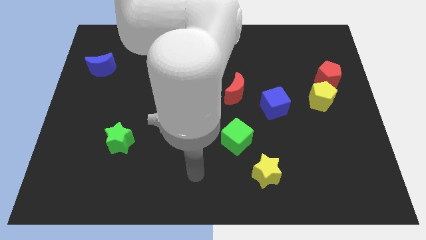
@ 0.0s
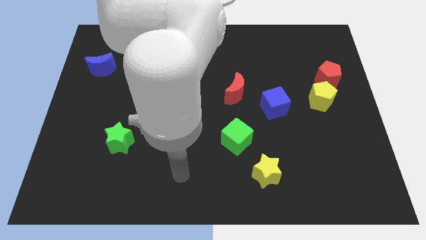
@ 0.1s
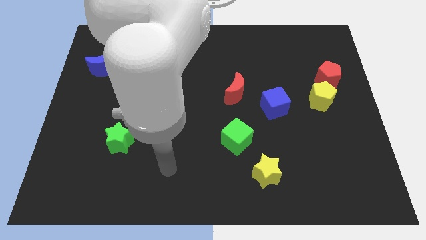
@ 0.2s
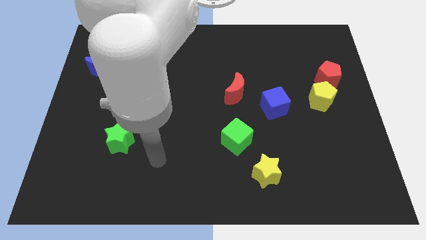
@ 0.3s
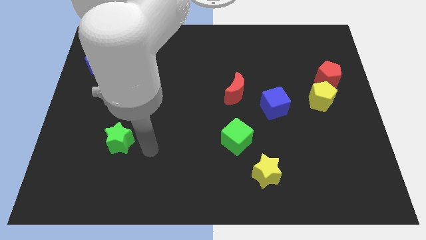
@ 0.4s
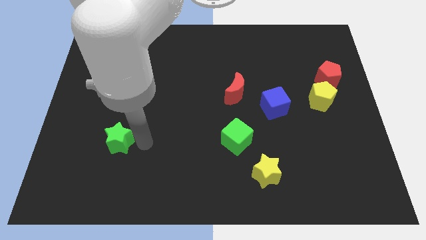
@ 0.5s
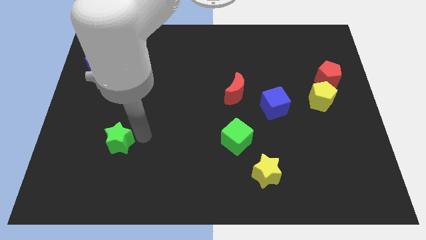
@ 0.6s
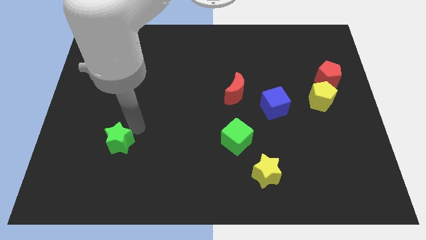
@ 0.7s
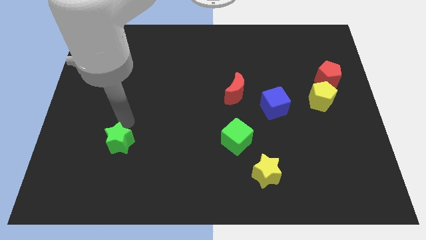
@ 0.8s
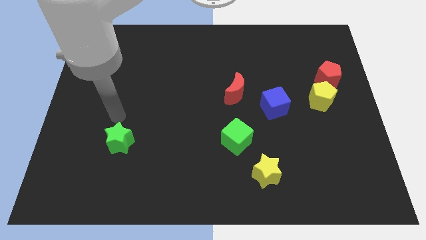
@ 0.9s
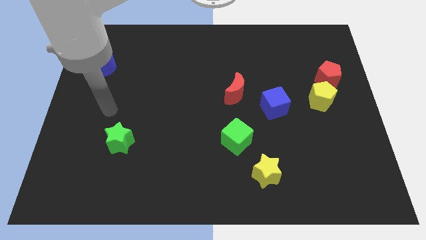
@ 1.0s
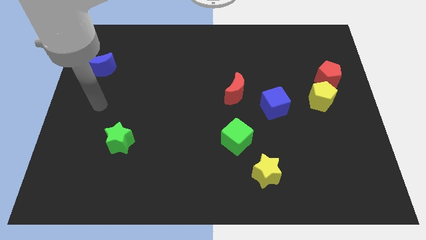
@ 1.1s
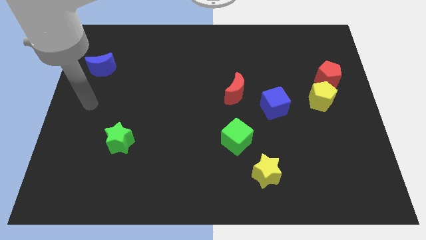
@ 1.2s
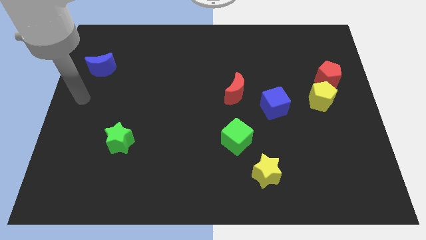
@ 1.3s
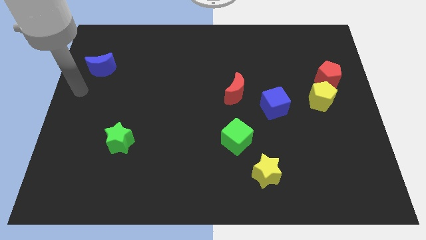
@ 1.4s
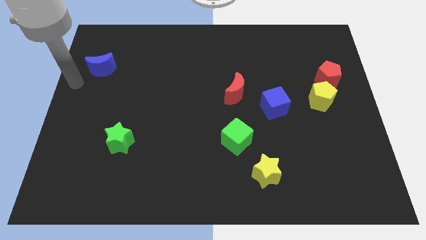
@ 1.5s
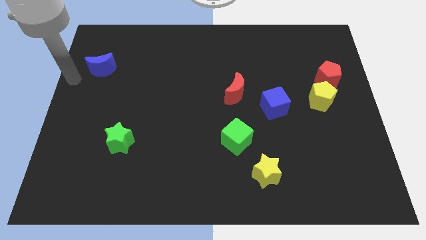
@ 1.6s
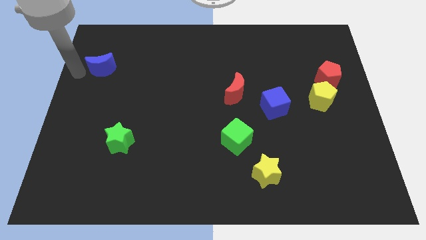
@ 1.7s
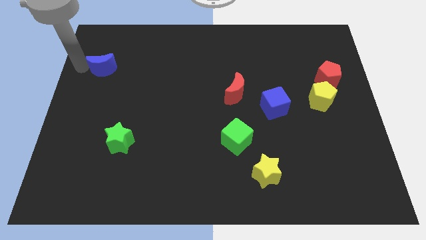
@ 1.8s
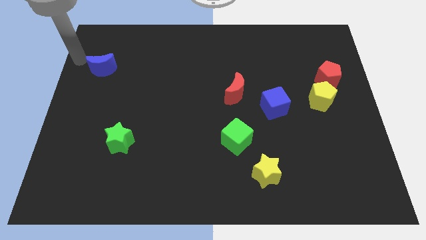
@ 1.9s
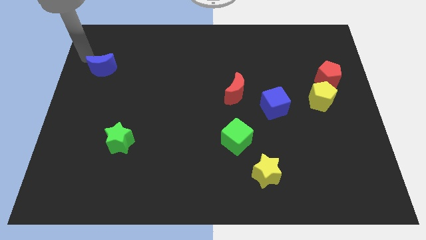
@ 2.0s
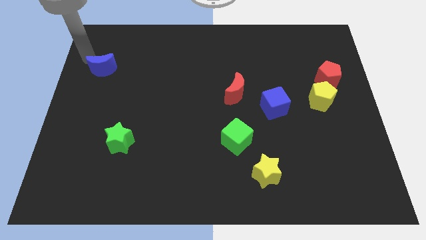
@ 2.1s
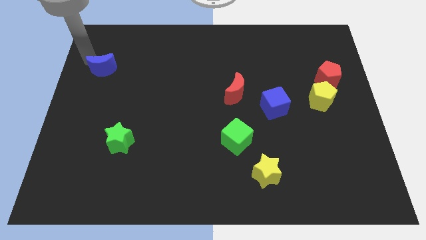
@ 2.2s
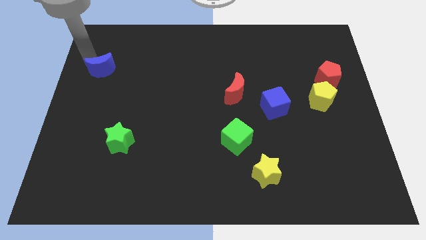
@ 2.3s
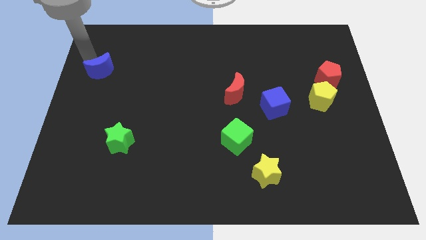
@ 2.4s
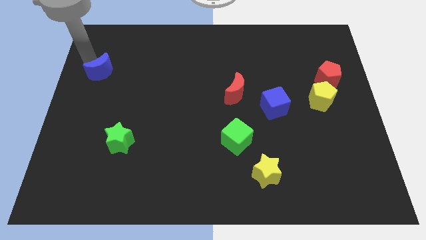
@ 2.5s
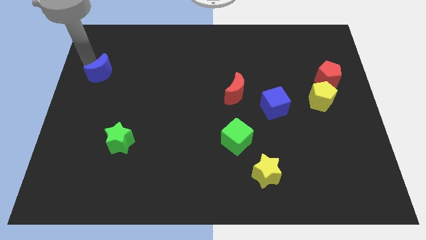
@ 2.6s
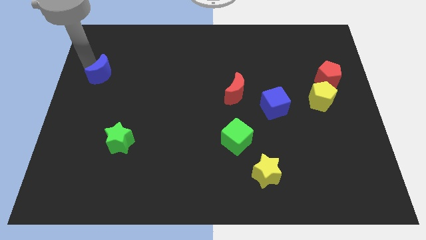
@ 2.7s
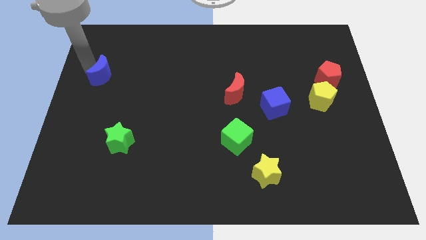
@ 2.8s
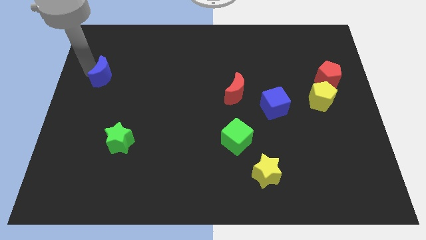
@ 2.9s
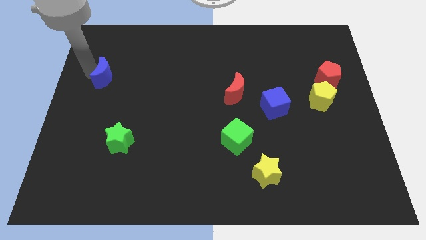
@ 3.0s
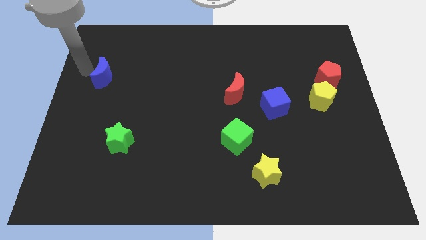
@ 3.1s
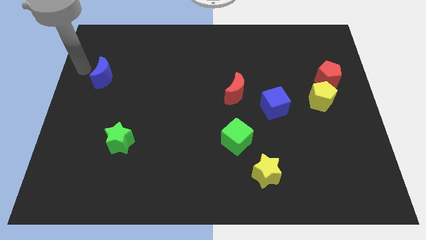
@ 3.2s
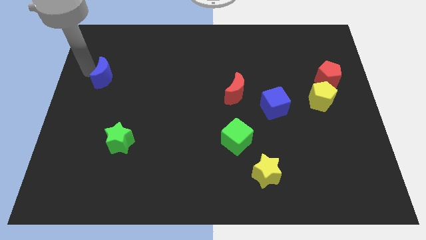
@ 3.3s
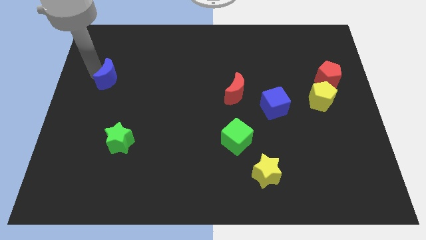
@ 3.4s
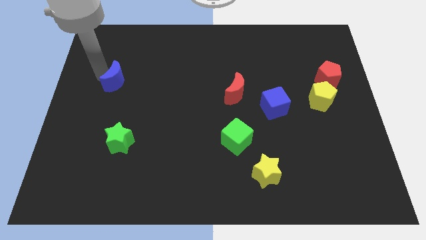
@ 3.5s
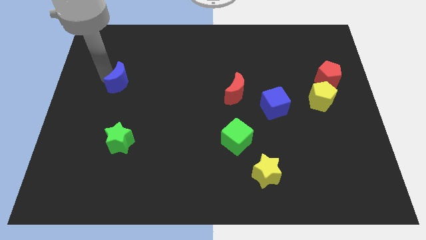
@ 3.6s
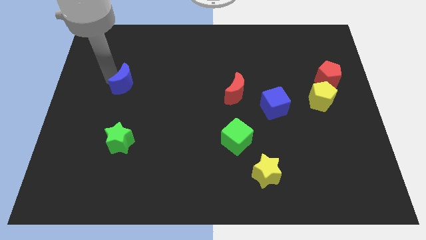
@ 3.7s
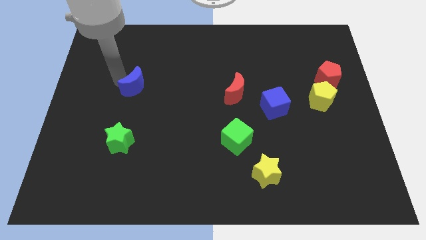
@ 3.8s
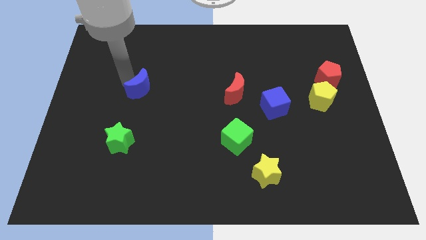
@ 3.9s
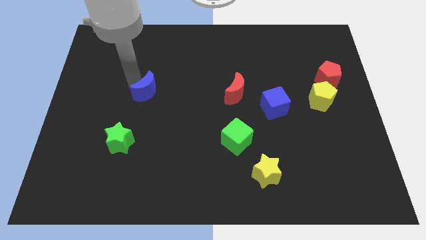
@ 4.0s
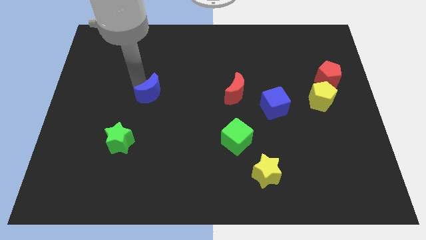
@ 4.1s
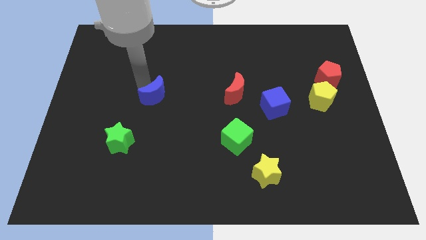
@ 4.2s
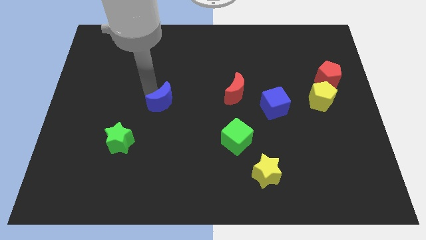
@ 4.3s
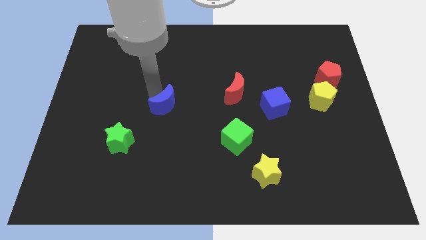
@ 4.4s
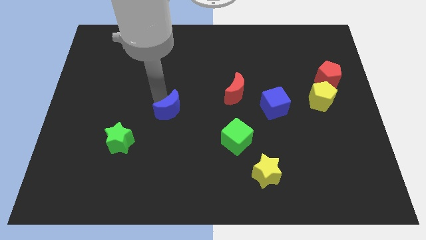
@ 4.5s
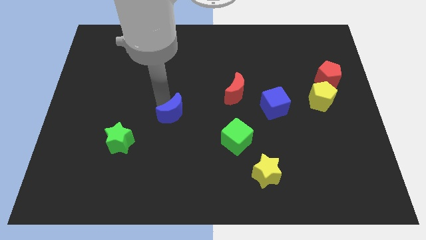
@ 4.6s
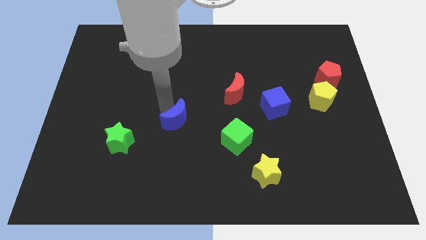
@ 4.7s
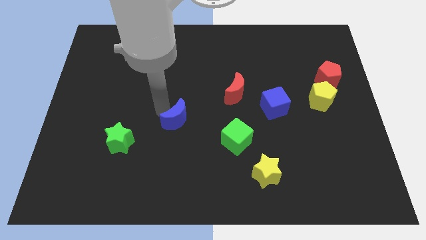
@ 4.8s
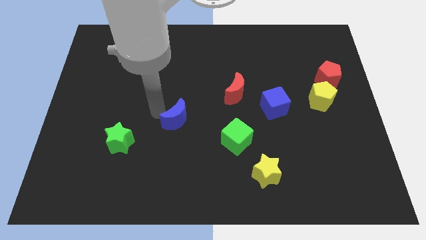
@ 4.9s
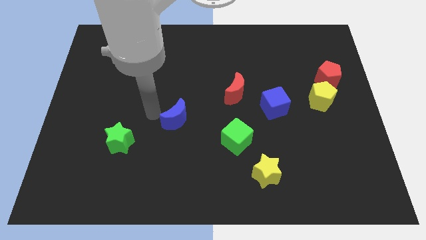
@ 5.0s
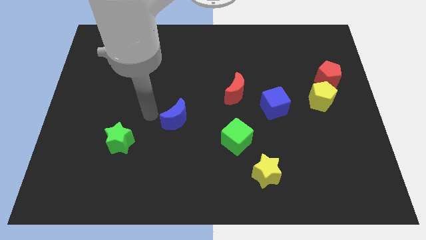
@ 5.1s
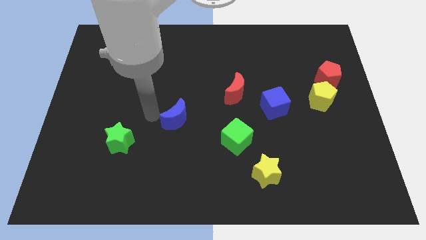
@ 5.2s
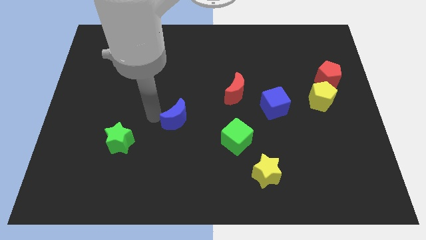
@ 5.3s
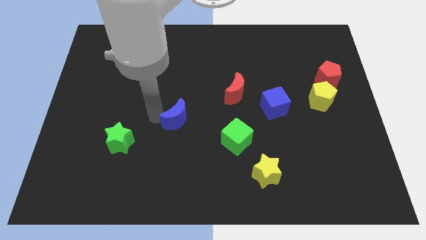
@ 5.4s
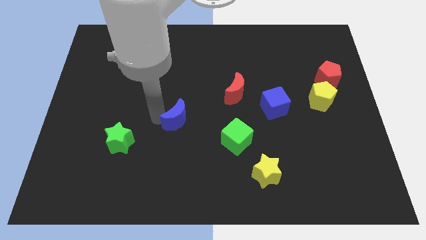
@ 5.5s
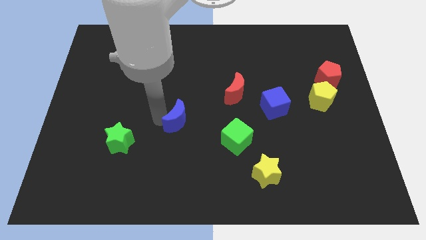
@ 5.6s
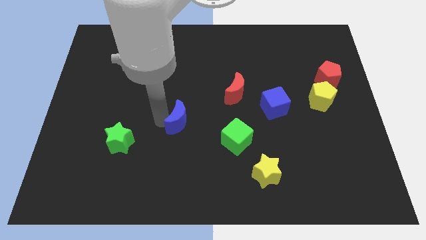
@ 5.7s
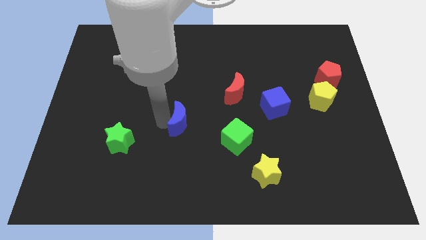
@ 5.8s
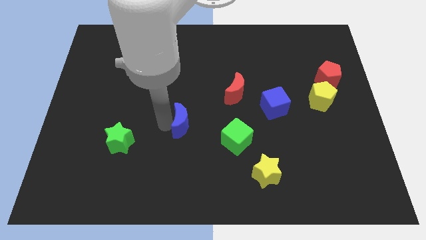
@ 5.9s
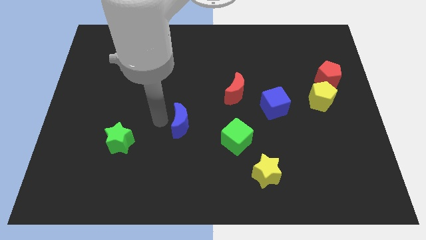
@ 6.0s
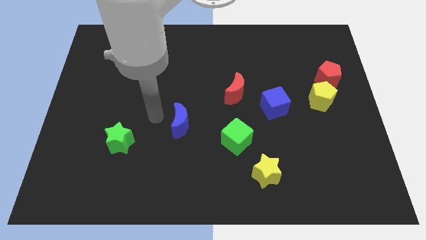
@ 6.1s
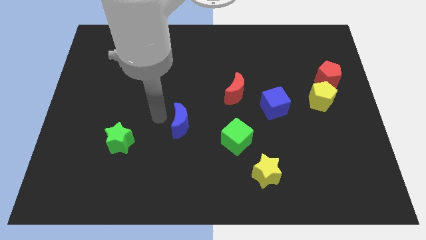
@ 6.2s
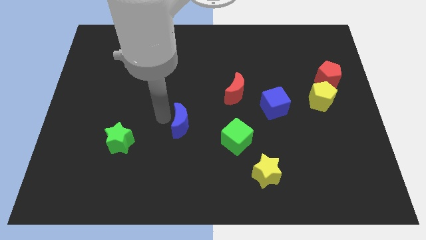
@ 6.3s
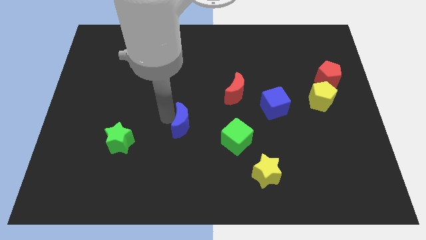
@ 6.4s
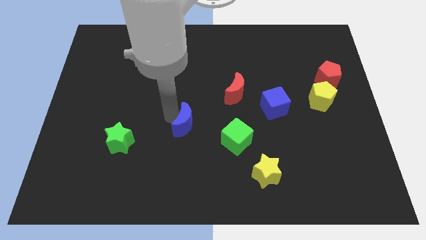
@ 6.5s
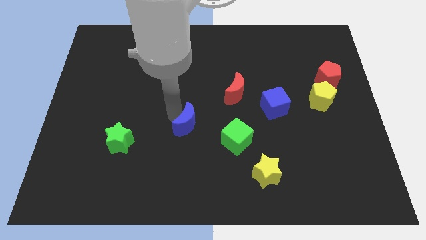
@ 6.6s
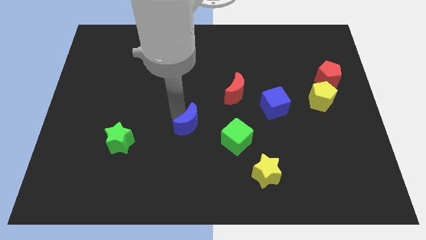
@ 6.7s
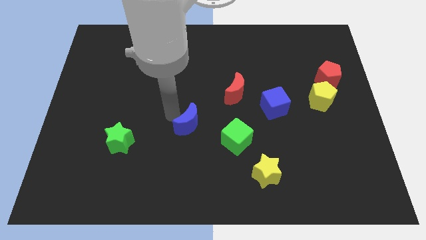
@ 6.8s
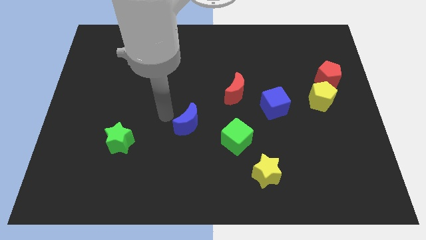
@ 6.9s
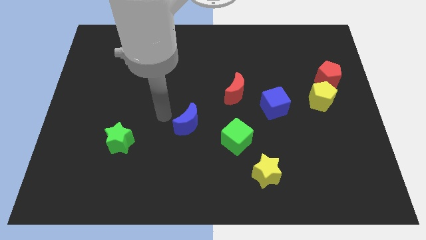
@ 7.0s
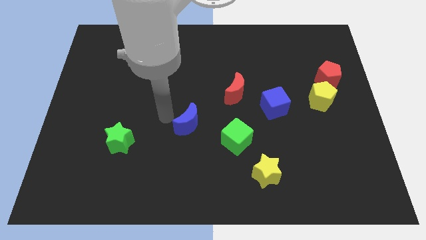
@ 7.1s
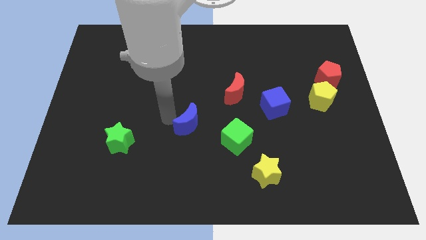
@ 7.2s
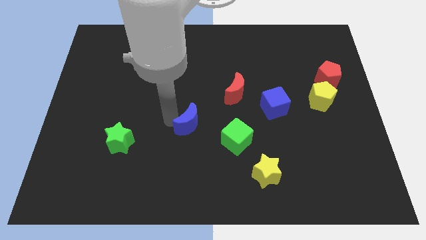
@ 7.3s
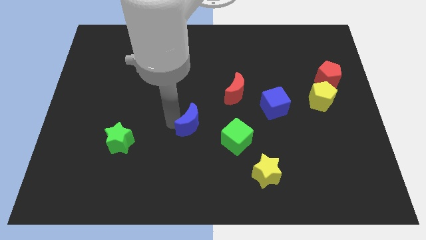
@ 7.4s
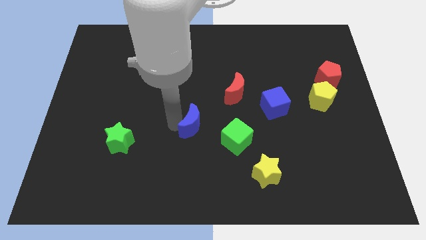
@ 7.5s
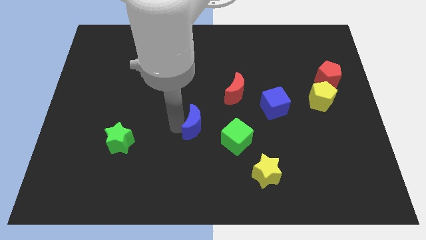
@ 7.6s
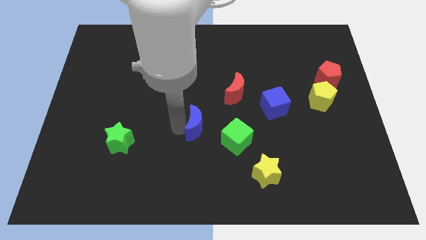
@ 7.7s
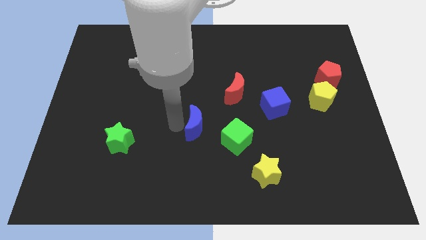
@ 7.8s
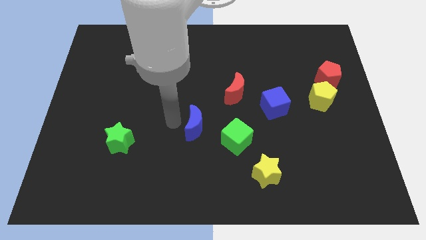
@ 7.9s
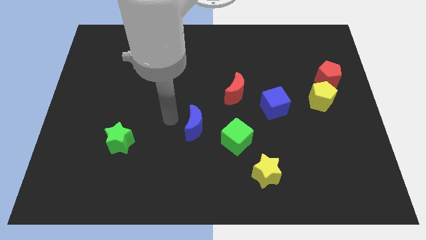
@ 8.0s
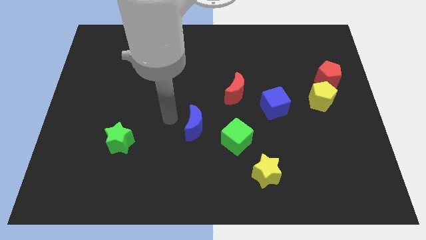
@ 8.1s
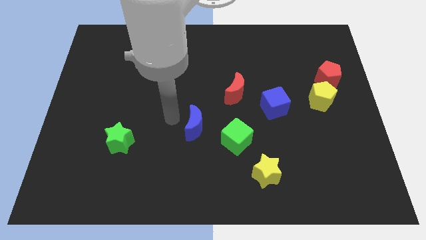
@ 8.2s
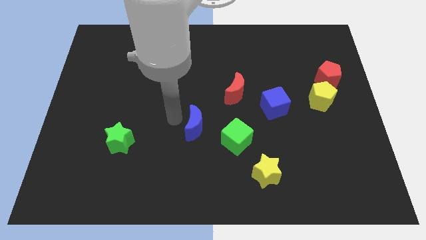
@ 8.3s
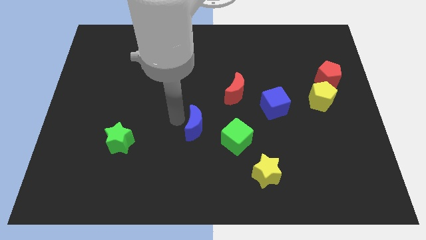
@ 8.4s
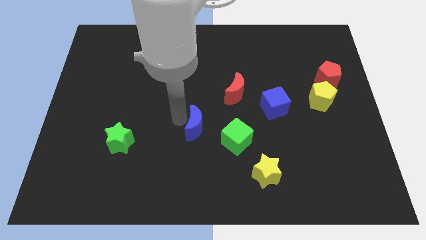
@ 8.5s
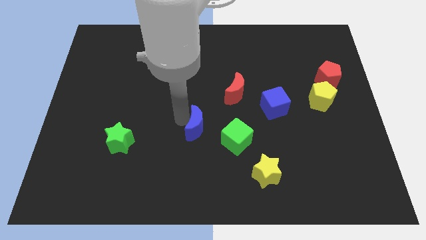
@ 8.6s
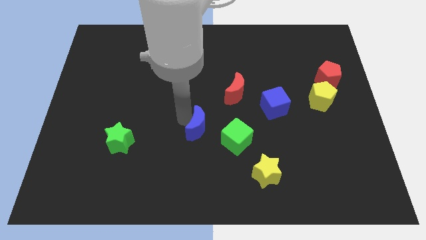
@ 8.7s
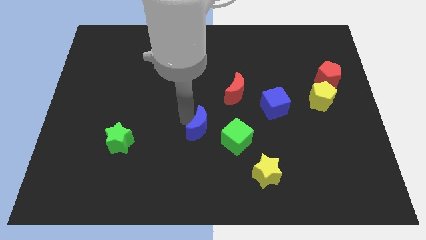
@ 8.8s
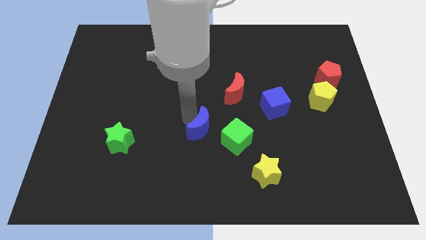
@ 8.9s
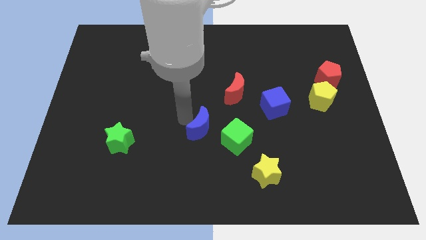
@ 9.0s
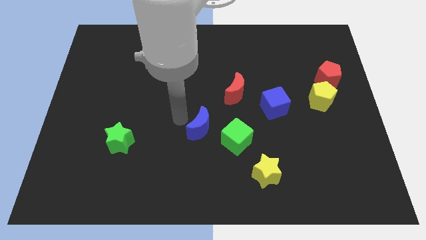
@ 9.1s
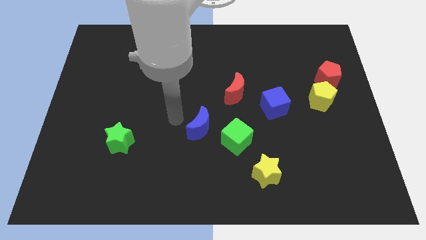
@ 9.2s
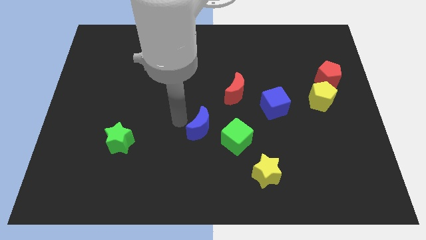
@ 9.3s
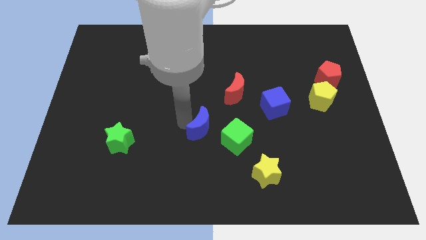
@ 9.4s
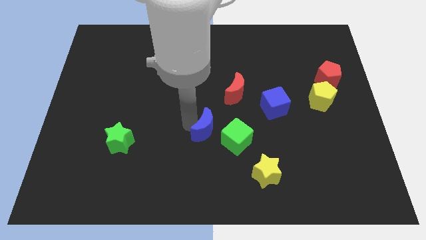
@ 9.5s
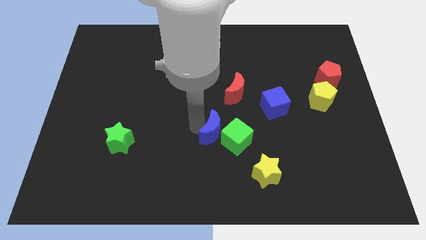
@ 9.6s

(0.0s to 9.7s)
slide the blue moon to the green cube
